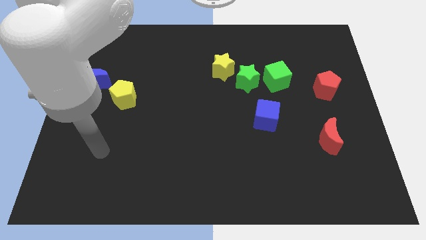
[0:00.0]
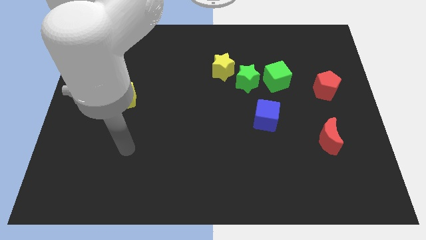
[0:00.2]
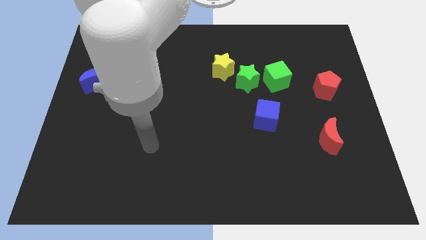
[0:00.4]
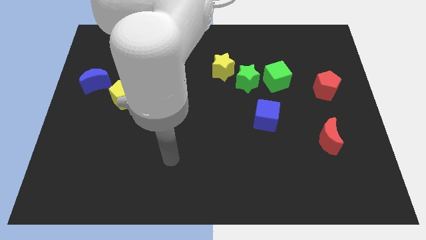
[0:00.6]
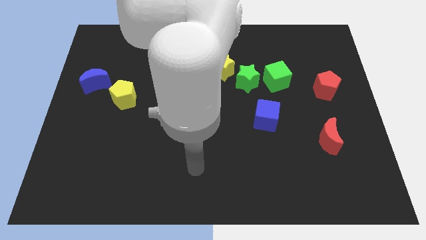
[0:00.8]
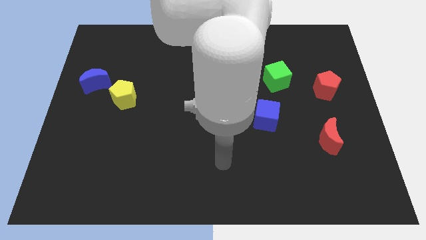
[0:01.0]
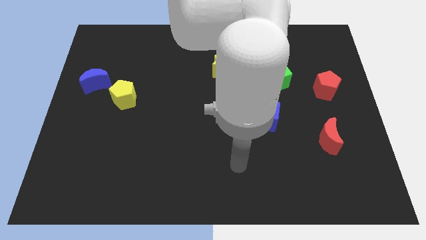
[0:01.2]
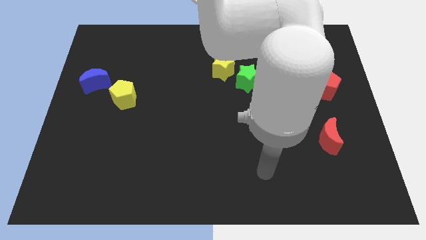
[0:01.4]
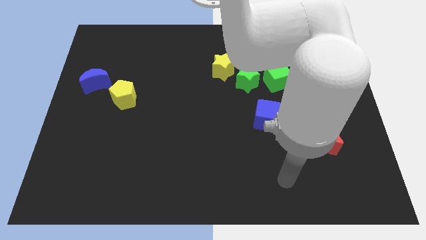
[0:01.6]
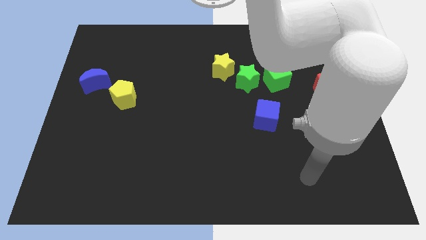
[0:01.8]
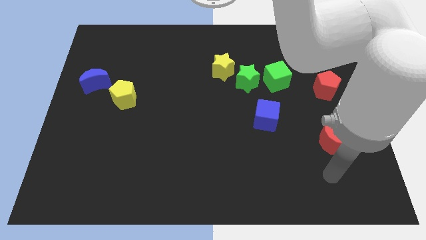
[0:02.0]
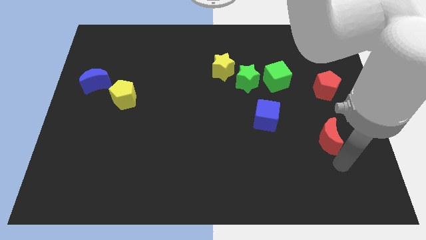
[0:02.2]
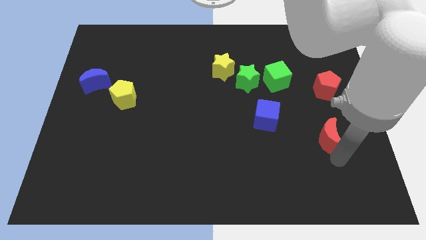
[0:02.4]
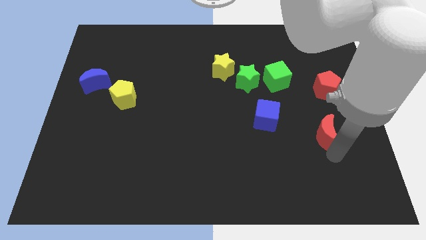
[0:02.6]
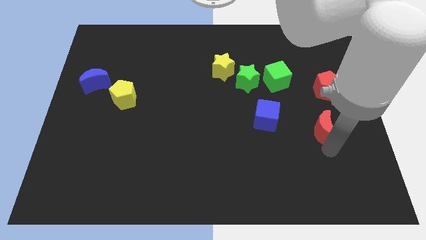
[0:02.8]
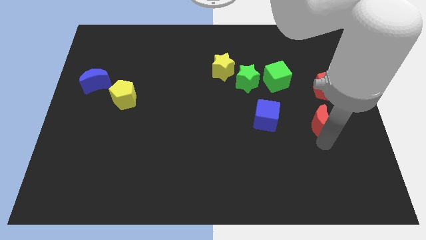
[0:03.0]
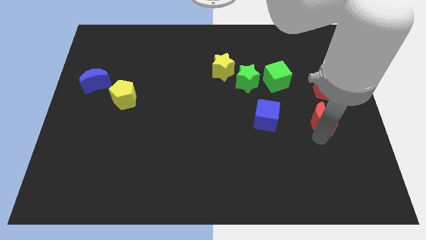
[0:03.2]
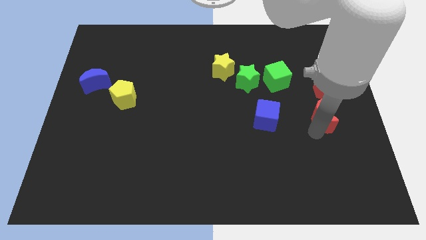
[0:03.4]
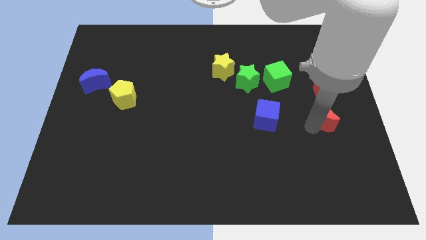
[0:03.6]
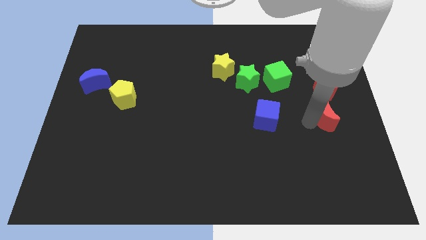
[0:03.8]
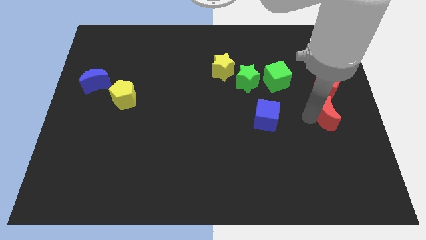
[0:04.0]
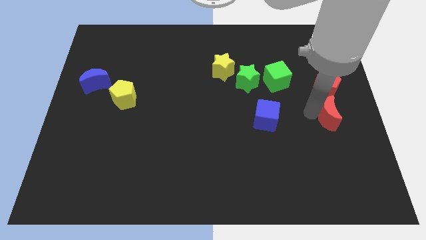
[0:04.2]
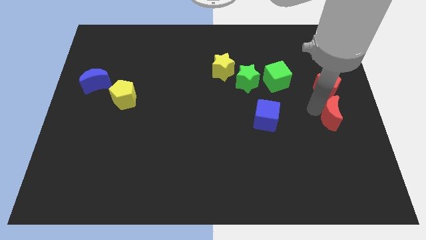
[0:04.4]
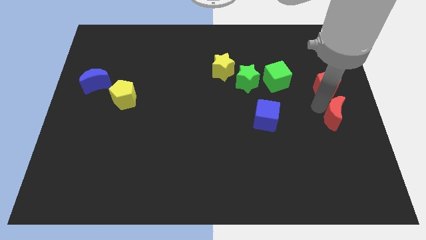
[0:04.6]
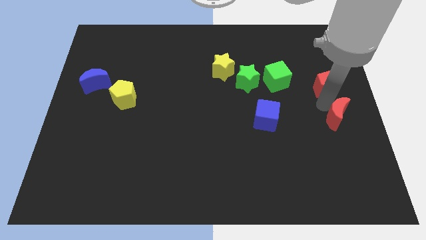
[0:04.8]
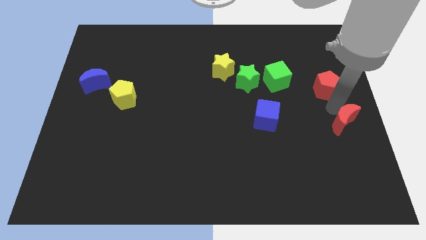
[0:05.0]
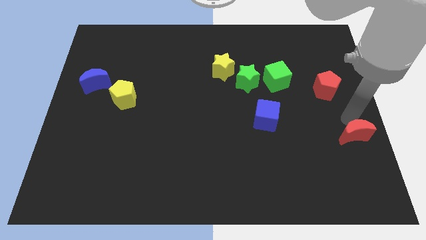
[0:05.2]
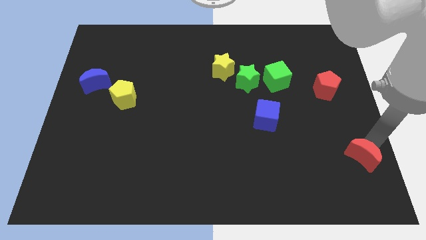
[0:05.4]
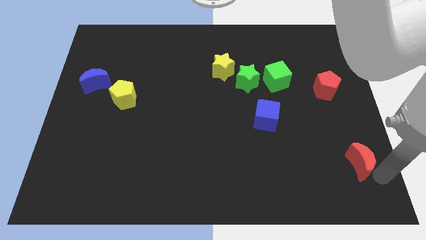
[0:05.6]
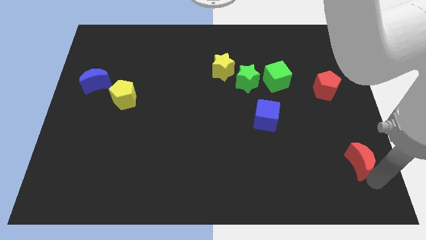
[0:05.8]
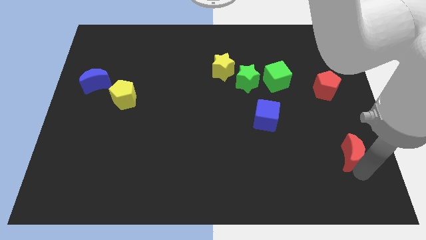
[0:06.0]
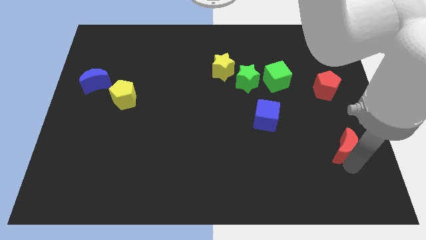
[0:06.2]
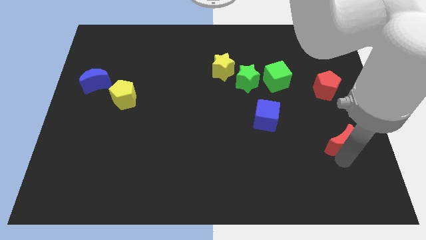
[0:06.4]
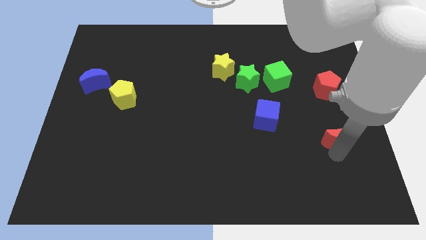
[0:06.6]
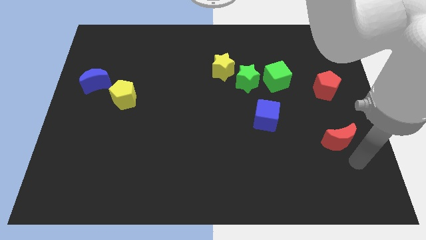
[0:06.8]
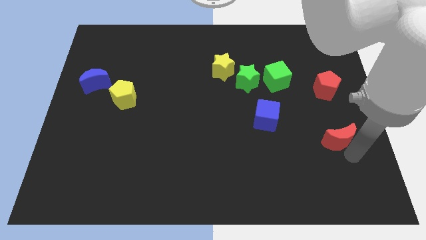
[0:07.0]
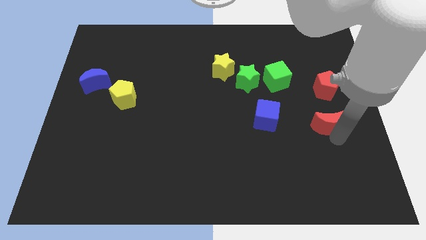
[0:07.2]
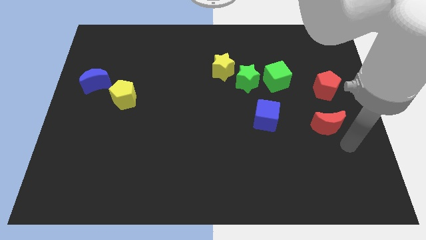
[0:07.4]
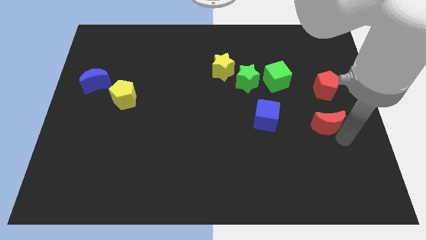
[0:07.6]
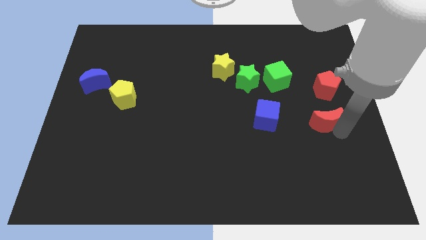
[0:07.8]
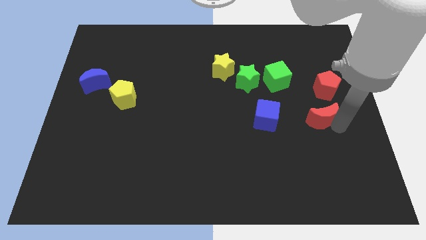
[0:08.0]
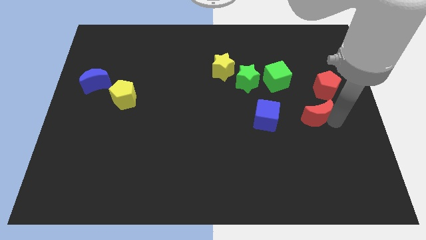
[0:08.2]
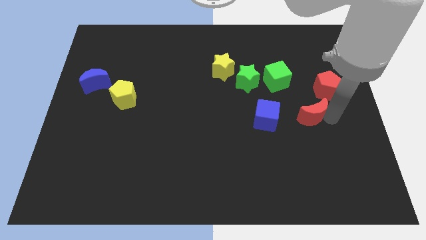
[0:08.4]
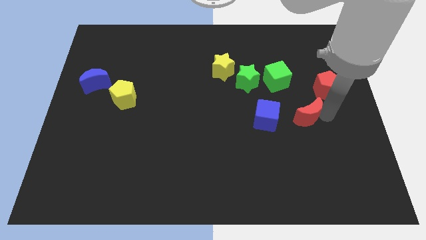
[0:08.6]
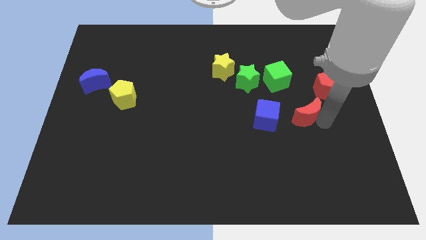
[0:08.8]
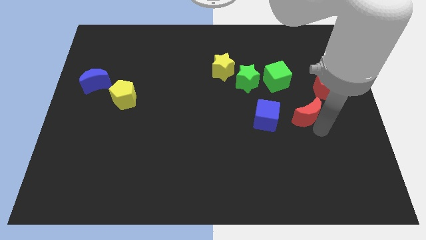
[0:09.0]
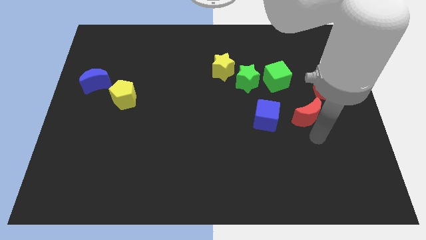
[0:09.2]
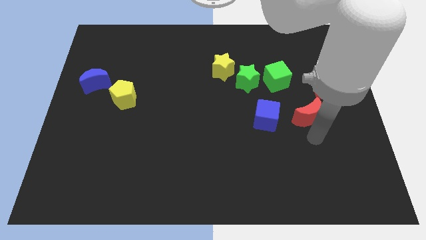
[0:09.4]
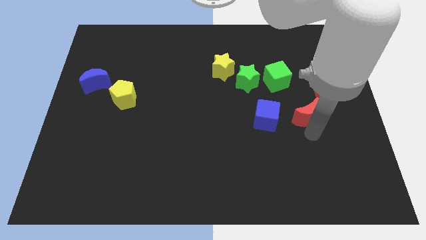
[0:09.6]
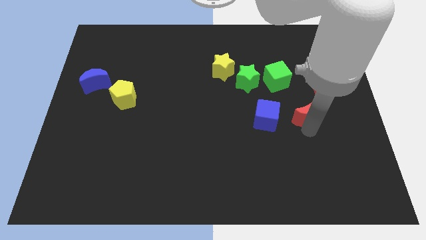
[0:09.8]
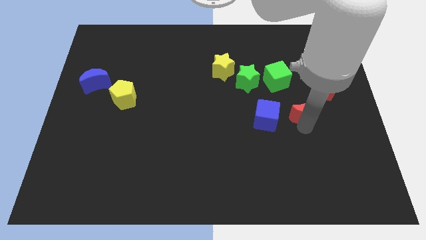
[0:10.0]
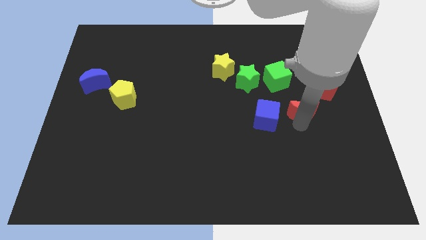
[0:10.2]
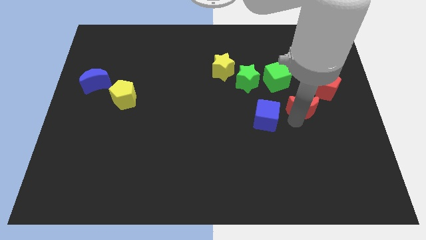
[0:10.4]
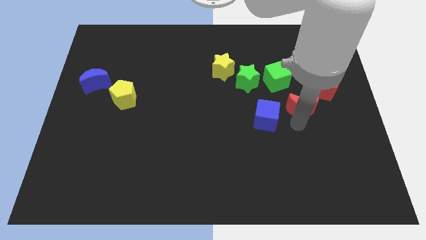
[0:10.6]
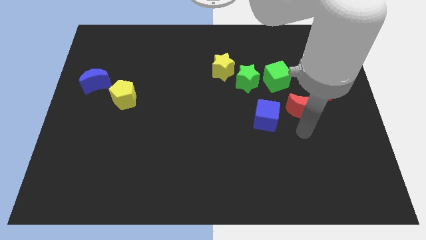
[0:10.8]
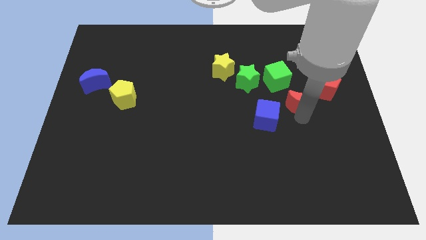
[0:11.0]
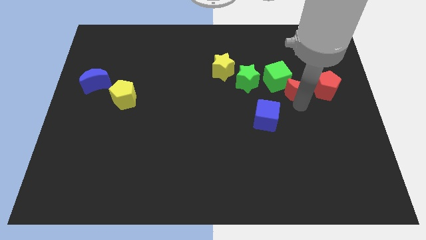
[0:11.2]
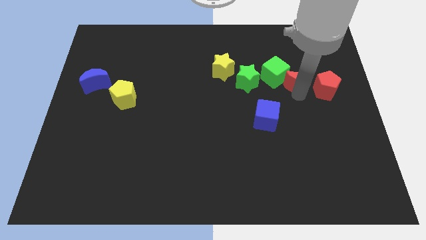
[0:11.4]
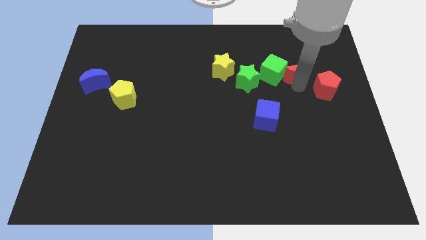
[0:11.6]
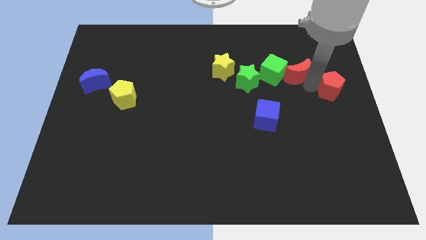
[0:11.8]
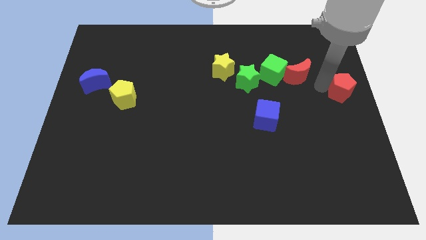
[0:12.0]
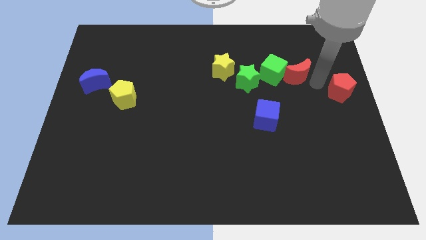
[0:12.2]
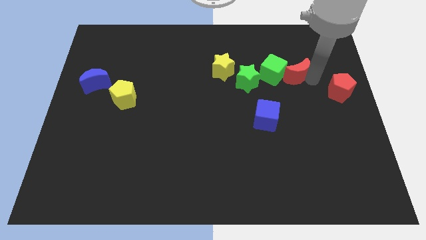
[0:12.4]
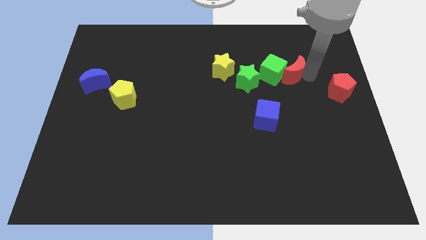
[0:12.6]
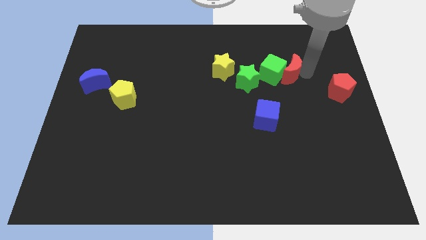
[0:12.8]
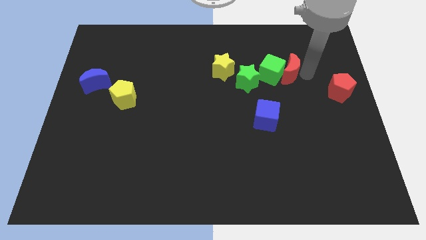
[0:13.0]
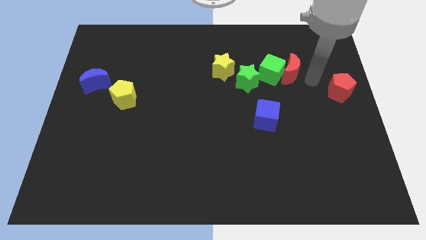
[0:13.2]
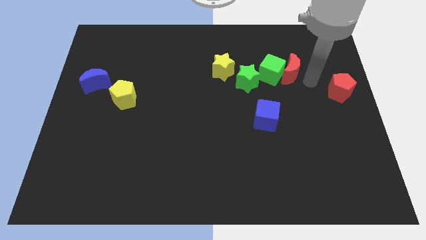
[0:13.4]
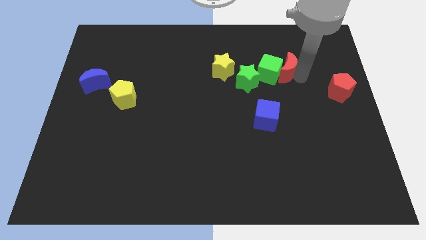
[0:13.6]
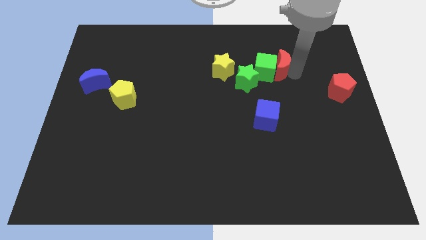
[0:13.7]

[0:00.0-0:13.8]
put the red moon diagonally up and to the right of the green star
